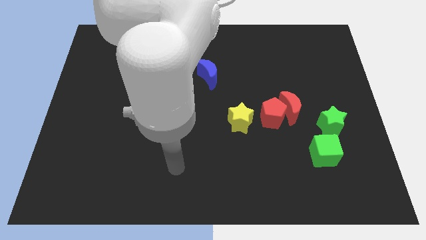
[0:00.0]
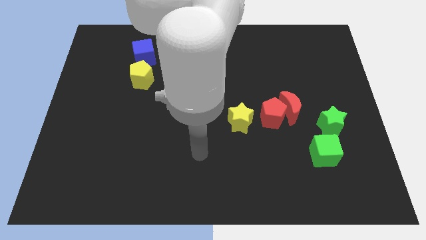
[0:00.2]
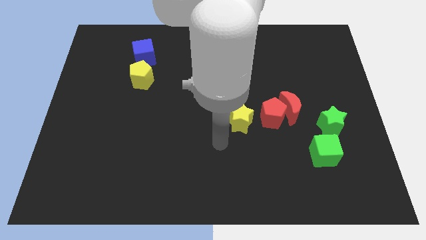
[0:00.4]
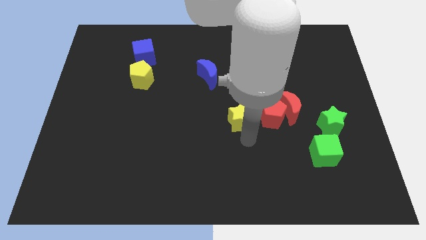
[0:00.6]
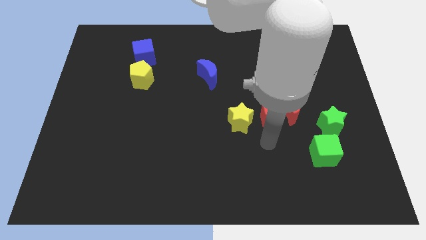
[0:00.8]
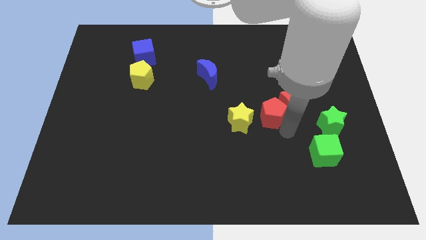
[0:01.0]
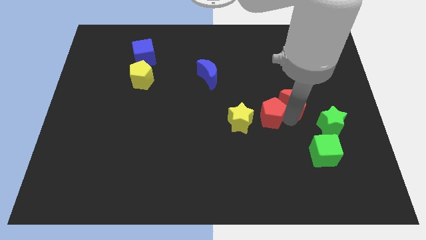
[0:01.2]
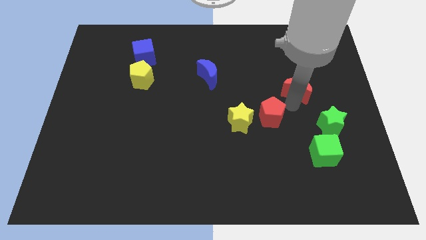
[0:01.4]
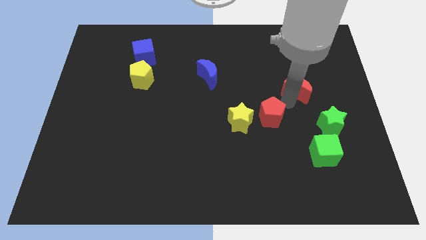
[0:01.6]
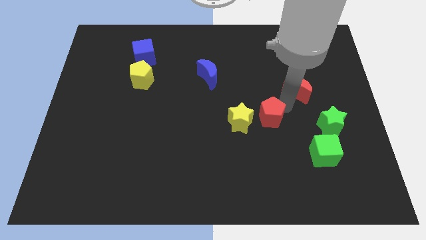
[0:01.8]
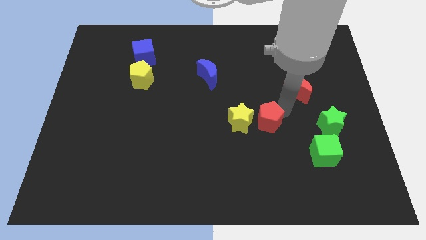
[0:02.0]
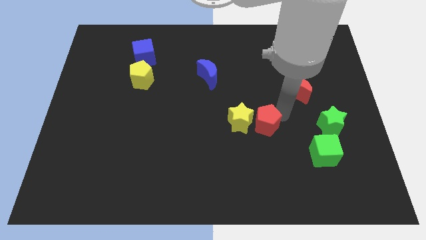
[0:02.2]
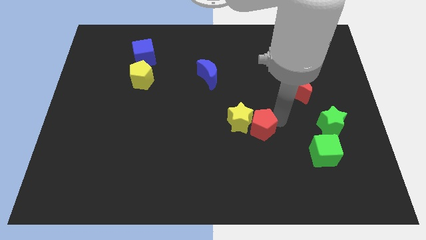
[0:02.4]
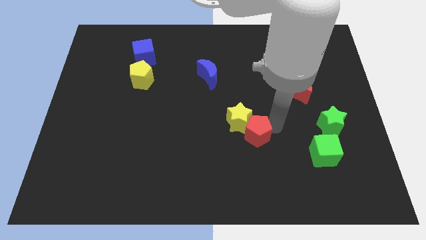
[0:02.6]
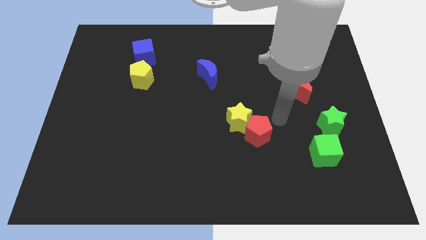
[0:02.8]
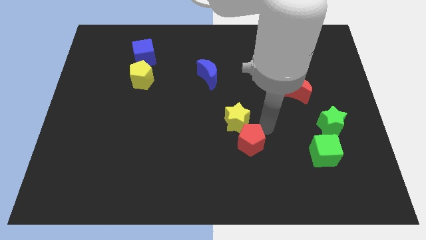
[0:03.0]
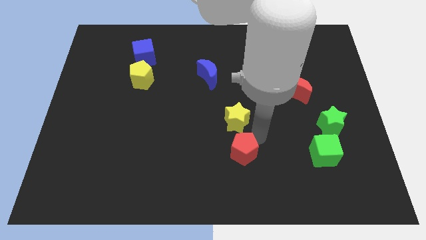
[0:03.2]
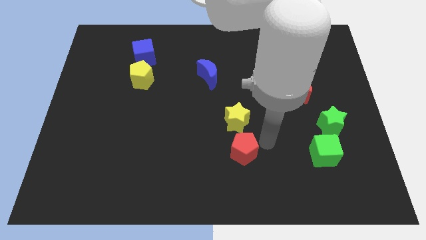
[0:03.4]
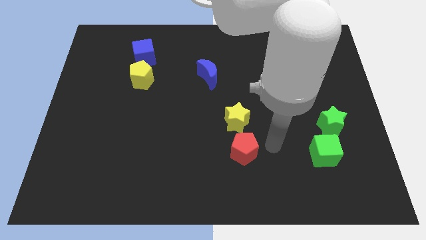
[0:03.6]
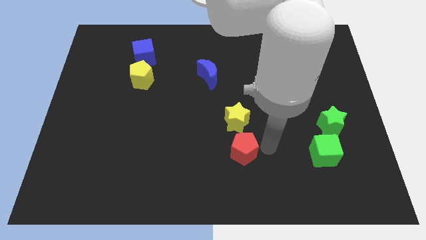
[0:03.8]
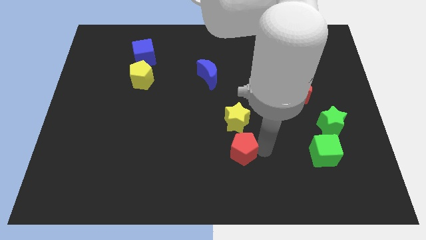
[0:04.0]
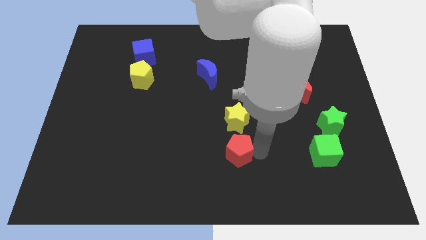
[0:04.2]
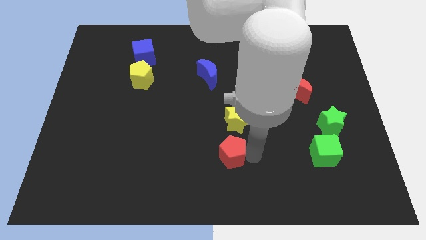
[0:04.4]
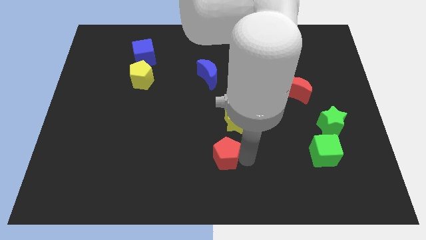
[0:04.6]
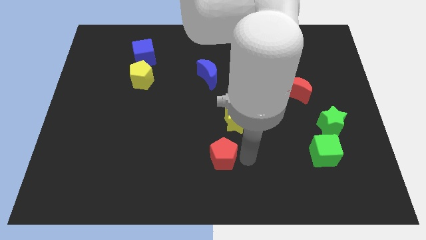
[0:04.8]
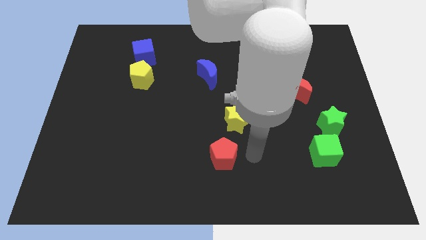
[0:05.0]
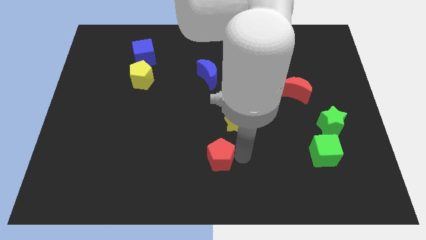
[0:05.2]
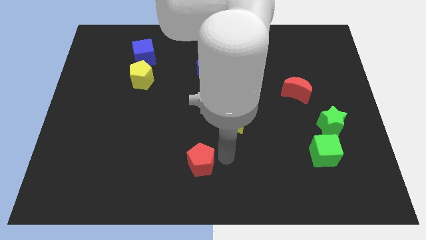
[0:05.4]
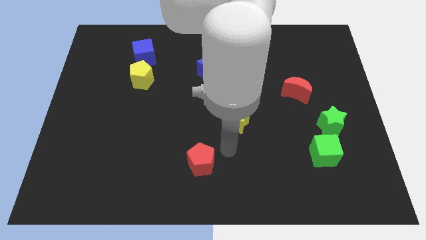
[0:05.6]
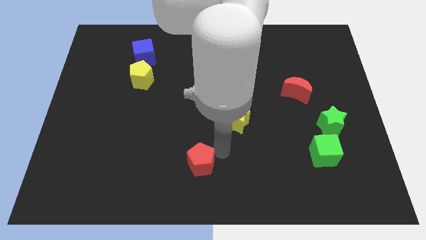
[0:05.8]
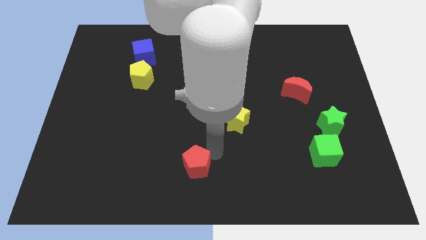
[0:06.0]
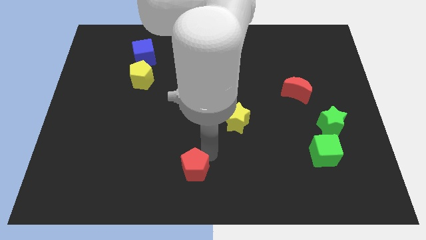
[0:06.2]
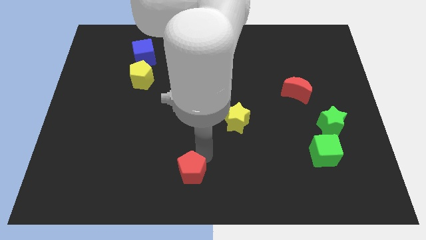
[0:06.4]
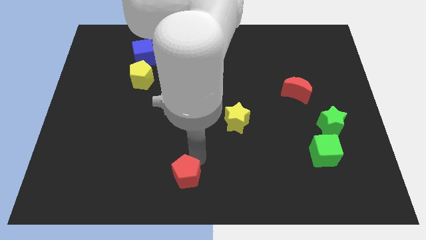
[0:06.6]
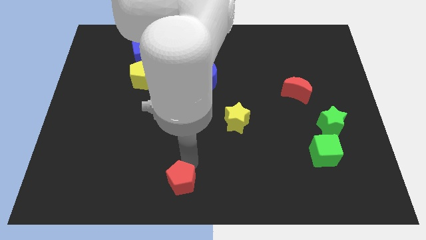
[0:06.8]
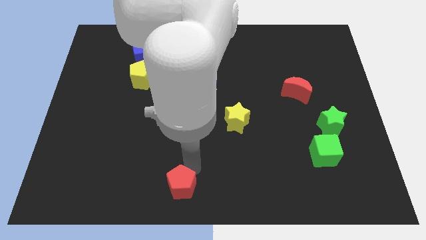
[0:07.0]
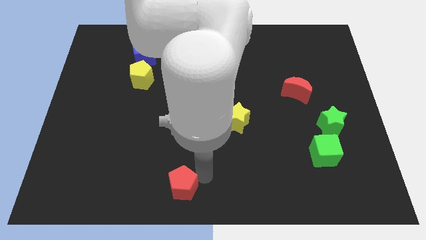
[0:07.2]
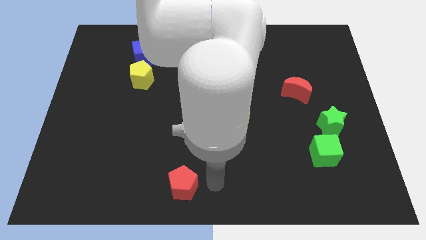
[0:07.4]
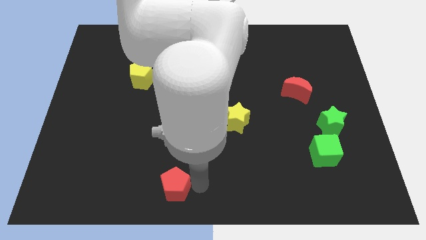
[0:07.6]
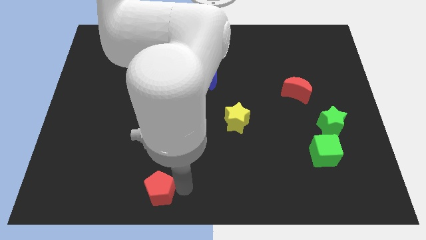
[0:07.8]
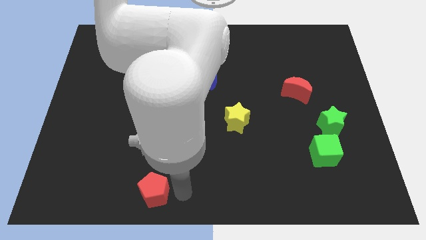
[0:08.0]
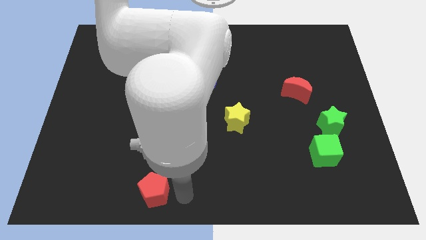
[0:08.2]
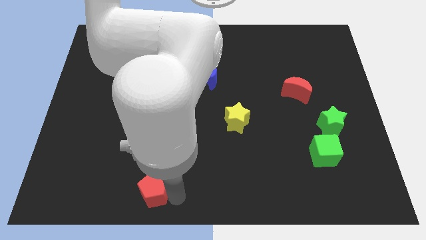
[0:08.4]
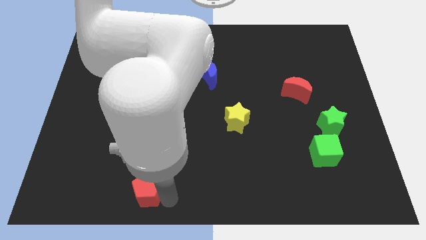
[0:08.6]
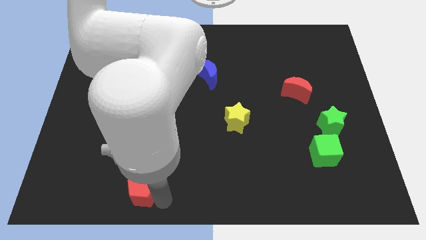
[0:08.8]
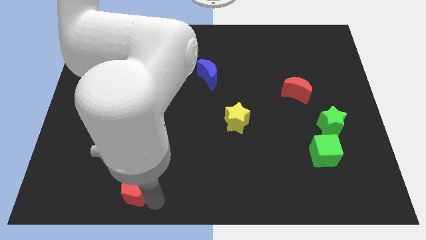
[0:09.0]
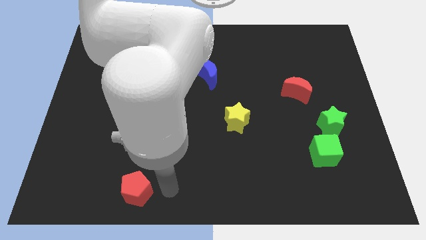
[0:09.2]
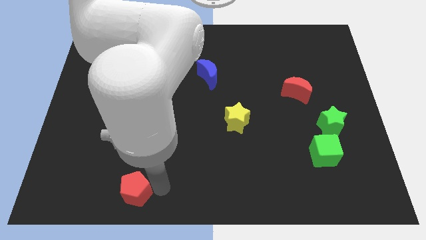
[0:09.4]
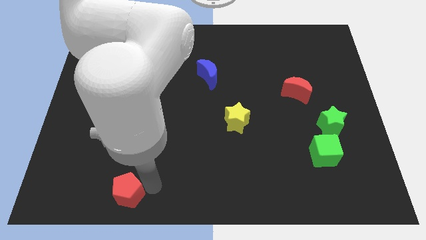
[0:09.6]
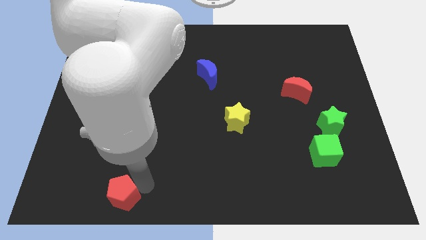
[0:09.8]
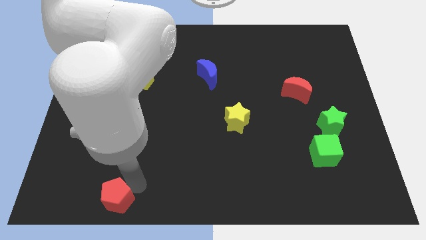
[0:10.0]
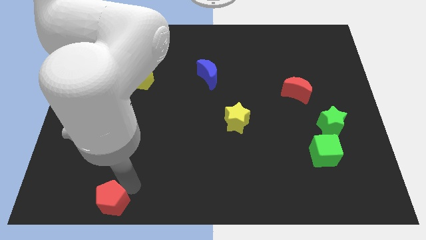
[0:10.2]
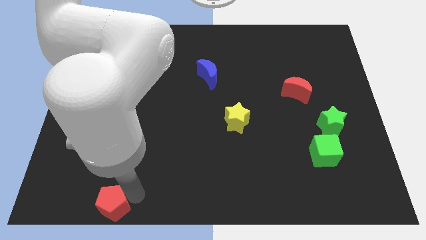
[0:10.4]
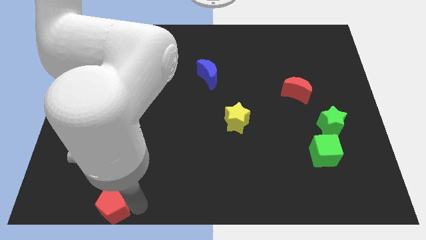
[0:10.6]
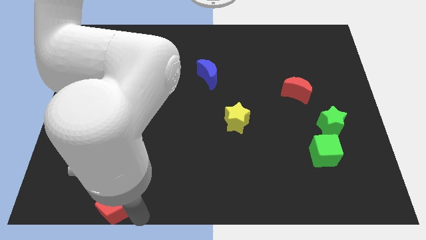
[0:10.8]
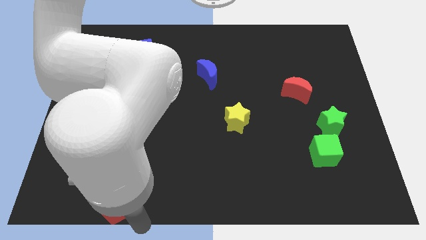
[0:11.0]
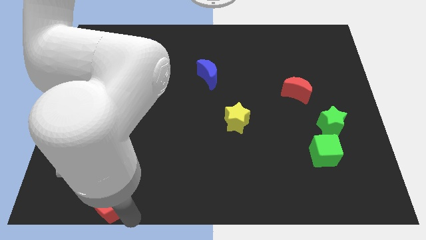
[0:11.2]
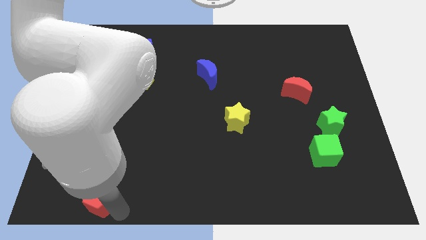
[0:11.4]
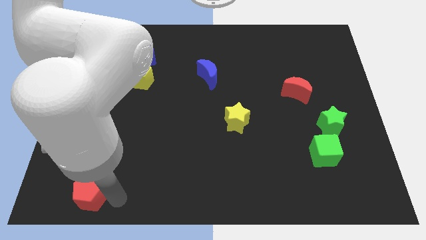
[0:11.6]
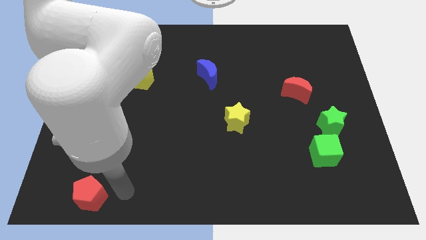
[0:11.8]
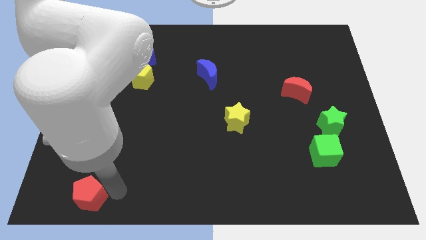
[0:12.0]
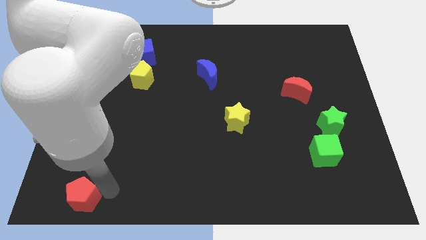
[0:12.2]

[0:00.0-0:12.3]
push the red pentagon to the lower left corner

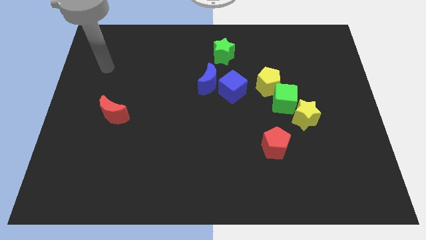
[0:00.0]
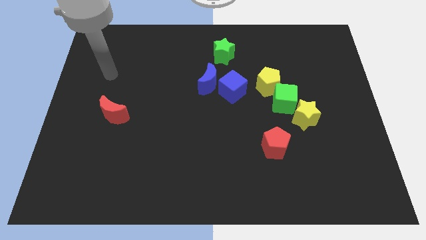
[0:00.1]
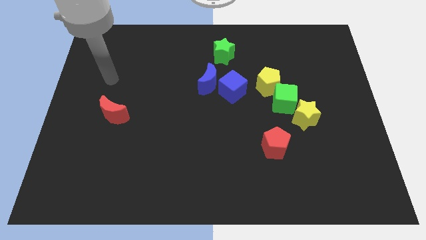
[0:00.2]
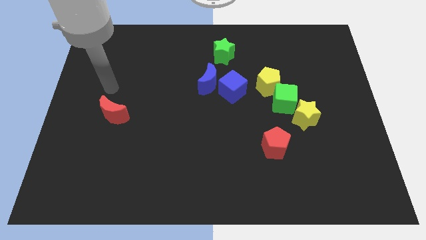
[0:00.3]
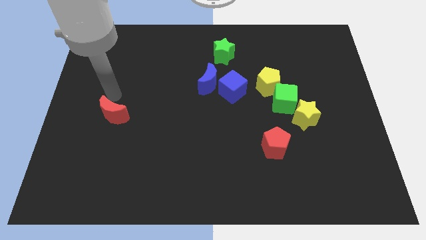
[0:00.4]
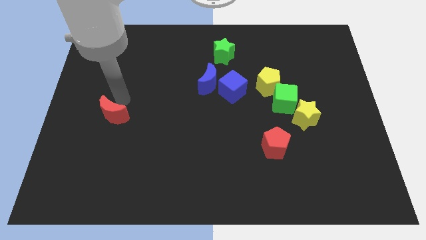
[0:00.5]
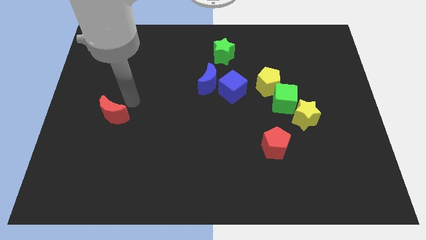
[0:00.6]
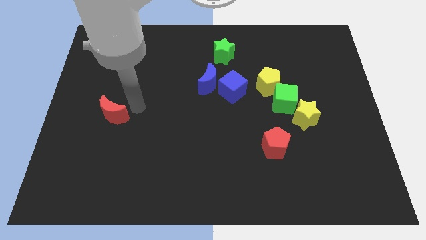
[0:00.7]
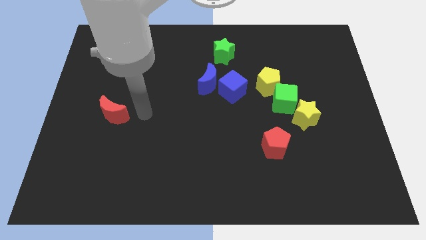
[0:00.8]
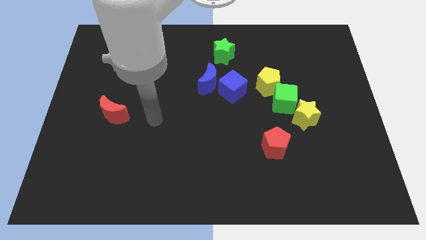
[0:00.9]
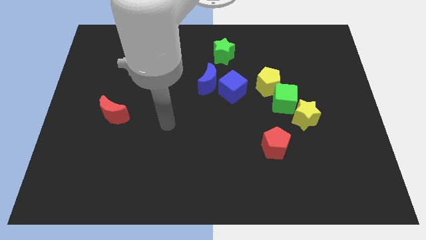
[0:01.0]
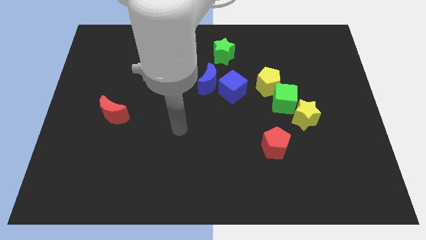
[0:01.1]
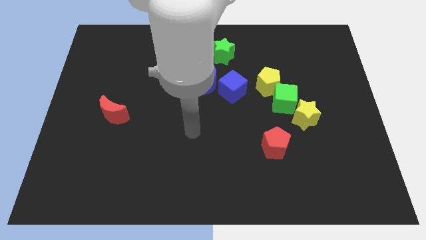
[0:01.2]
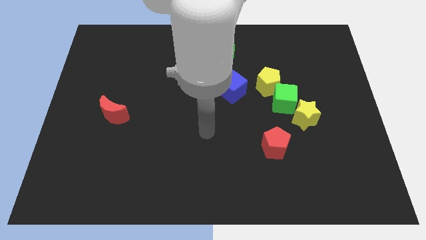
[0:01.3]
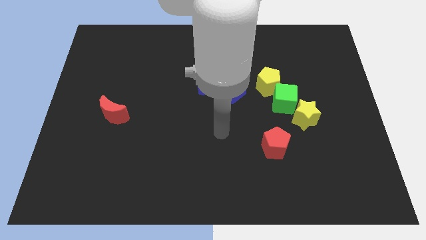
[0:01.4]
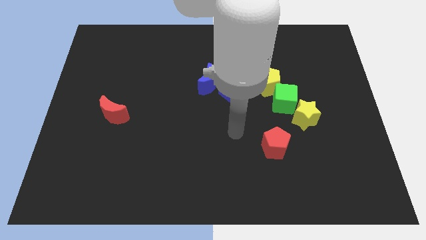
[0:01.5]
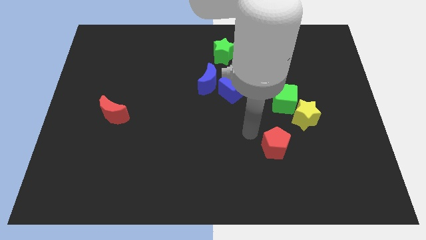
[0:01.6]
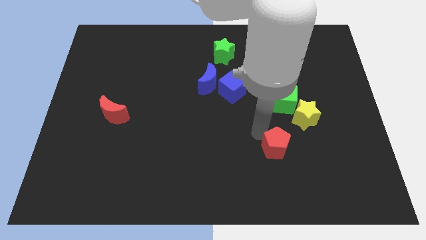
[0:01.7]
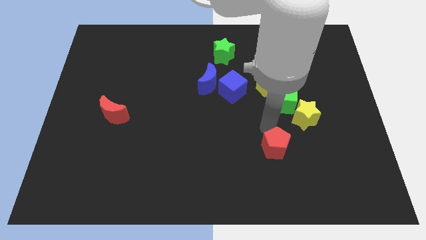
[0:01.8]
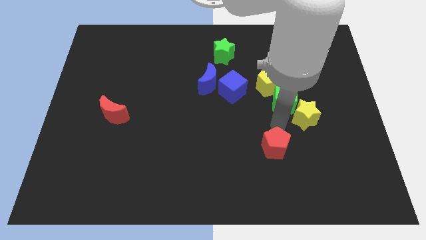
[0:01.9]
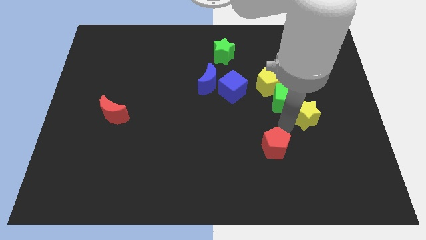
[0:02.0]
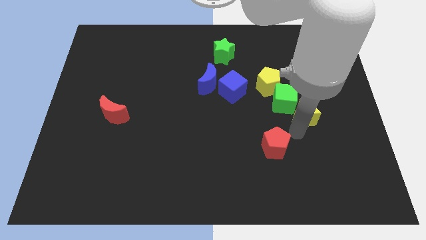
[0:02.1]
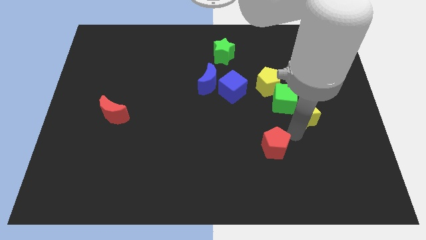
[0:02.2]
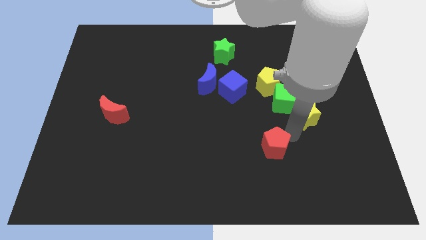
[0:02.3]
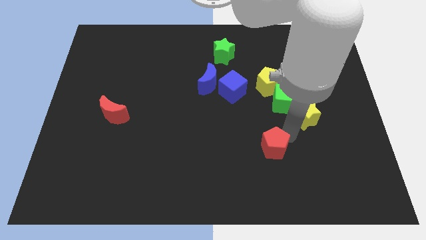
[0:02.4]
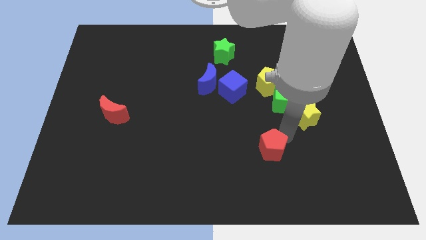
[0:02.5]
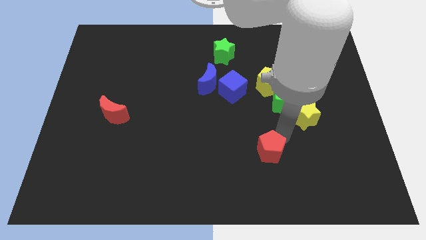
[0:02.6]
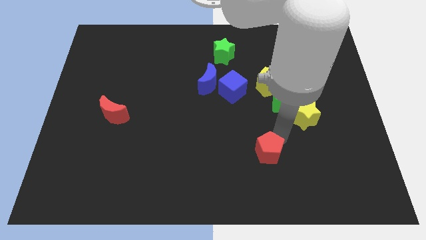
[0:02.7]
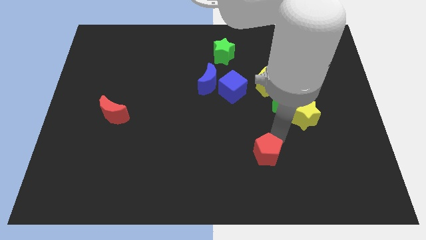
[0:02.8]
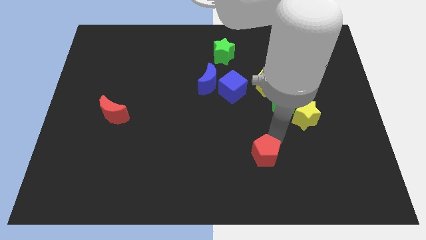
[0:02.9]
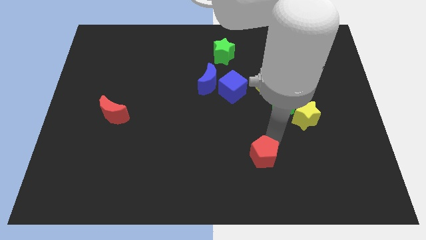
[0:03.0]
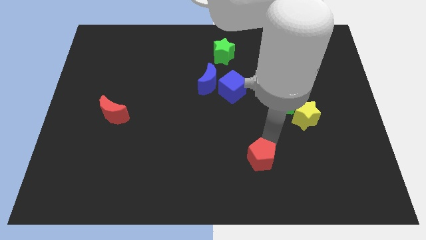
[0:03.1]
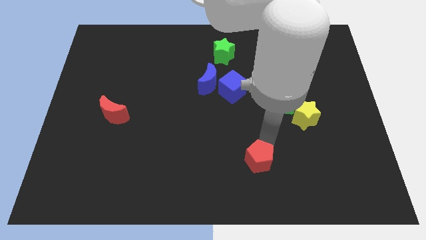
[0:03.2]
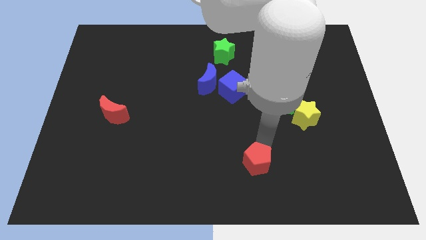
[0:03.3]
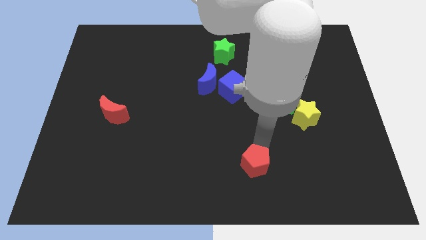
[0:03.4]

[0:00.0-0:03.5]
put the red pentagon to the bottom side
